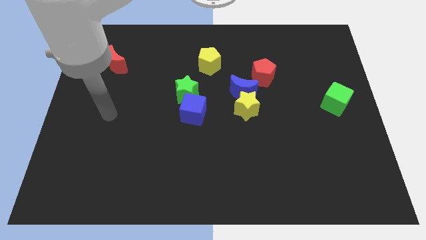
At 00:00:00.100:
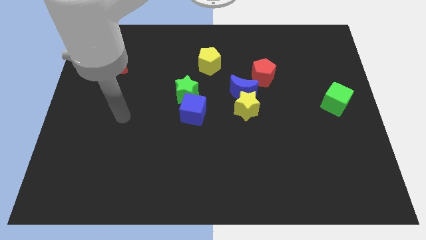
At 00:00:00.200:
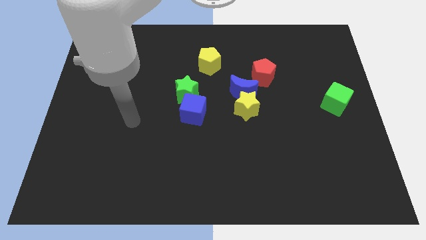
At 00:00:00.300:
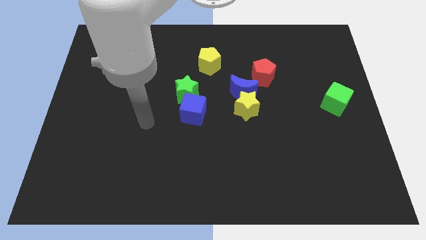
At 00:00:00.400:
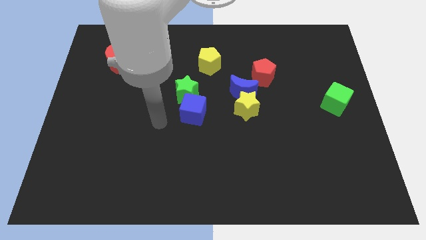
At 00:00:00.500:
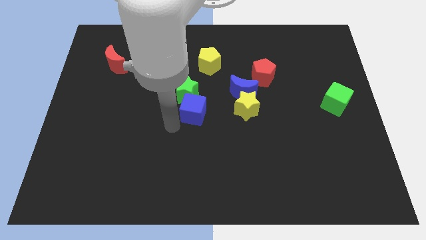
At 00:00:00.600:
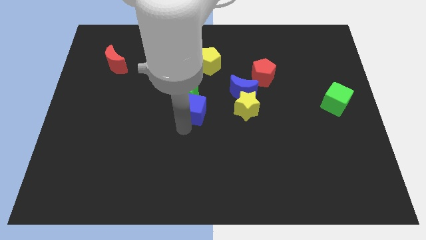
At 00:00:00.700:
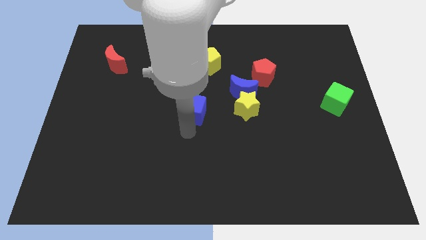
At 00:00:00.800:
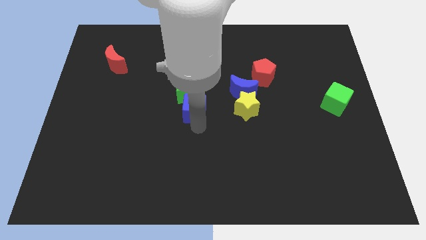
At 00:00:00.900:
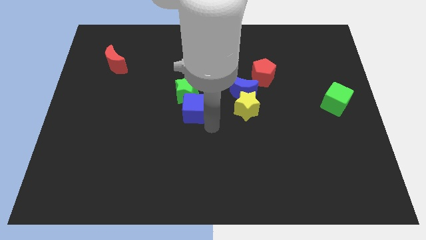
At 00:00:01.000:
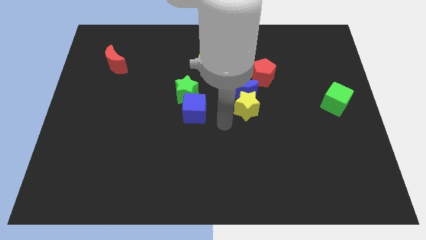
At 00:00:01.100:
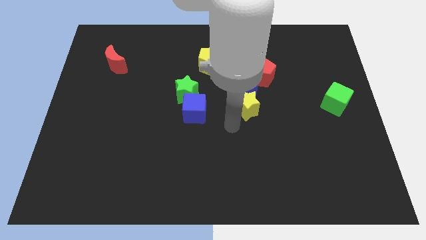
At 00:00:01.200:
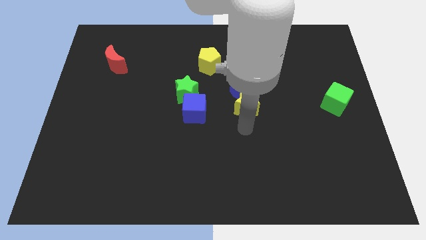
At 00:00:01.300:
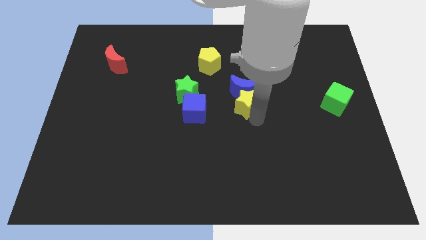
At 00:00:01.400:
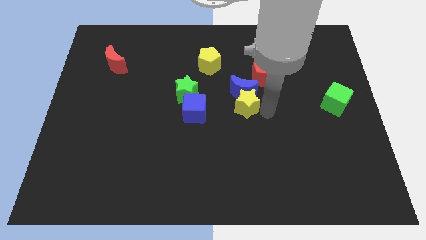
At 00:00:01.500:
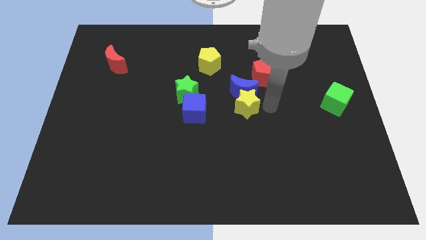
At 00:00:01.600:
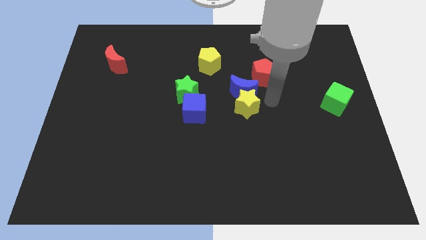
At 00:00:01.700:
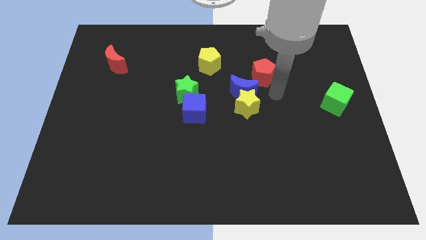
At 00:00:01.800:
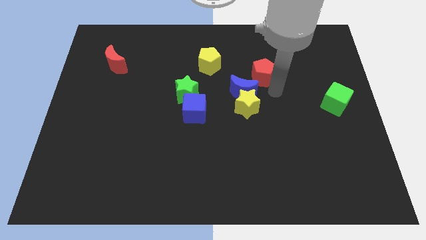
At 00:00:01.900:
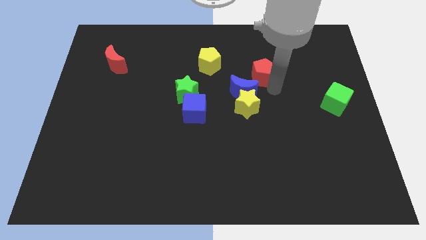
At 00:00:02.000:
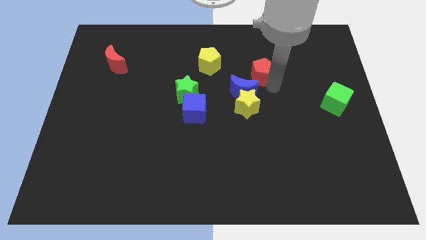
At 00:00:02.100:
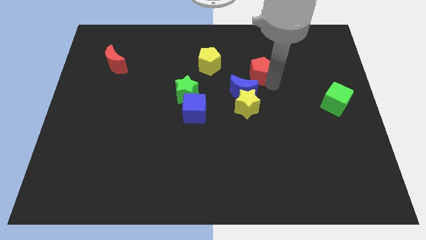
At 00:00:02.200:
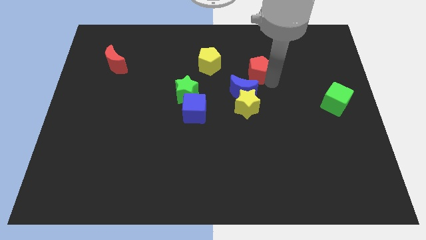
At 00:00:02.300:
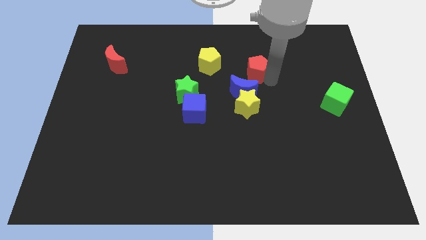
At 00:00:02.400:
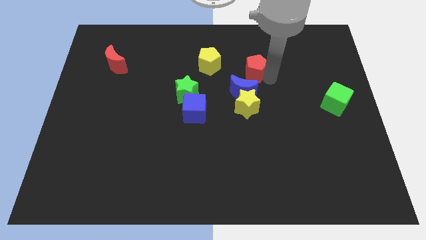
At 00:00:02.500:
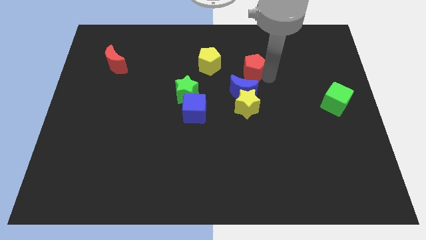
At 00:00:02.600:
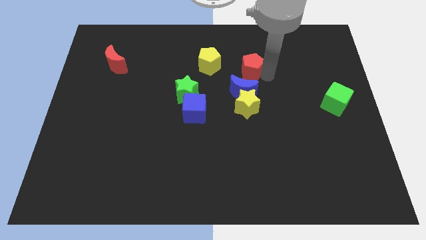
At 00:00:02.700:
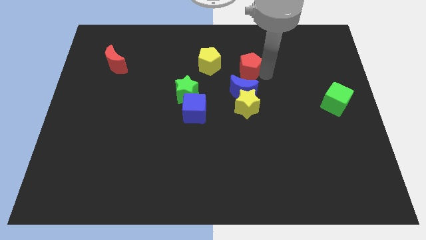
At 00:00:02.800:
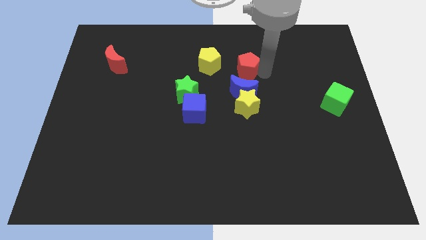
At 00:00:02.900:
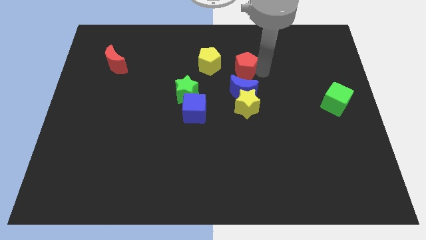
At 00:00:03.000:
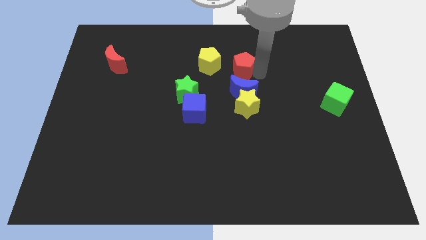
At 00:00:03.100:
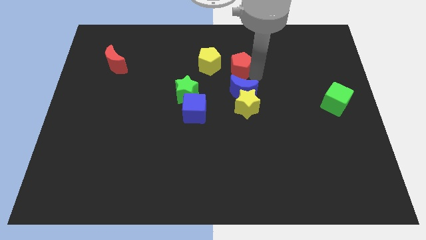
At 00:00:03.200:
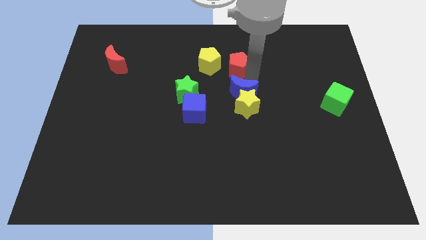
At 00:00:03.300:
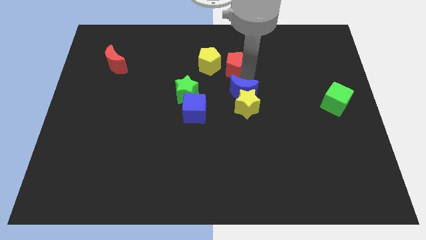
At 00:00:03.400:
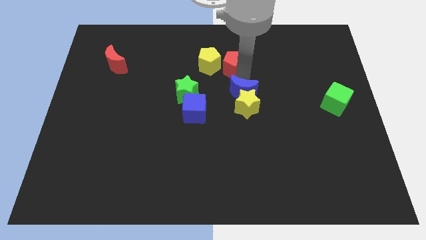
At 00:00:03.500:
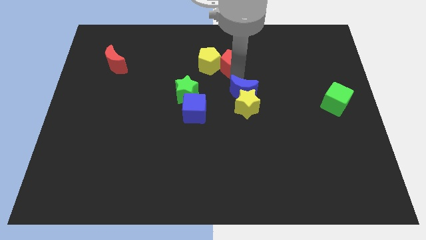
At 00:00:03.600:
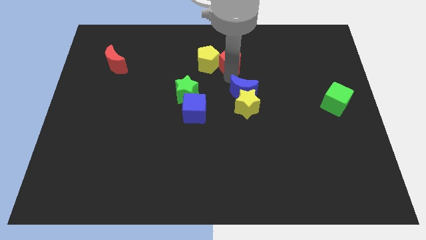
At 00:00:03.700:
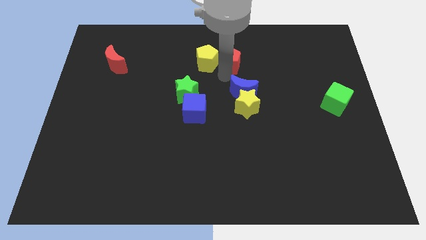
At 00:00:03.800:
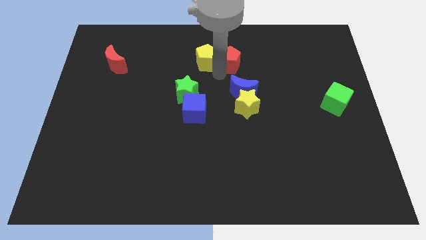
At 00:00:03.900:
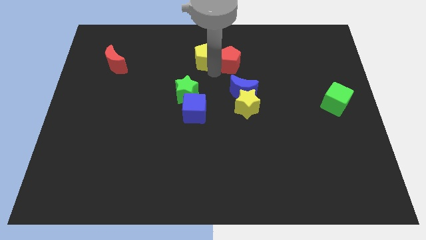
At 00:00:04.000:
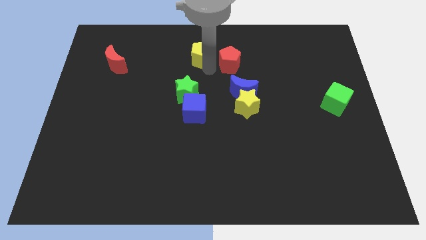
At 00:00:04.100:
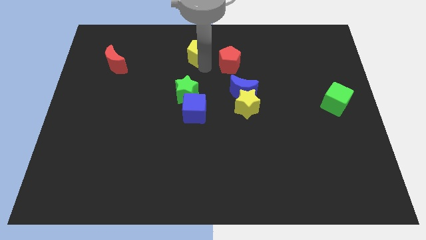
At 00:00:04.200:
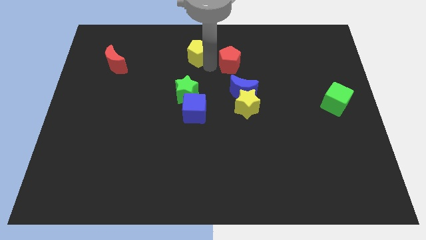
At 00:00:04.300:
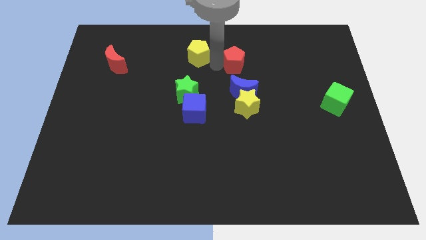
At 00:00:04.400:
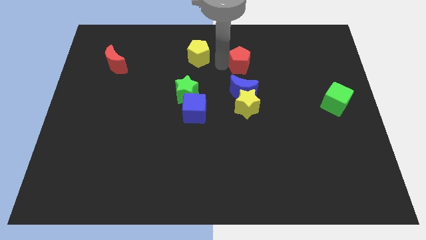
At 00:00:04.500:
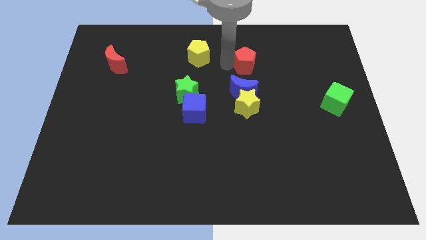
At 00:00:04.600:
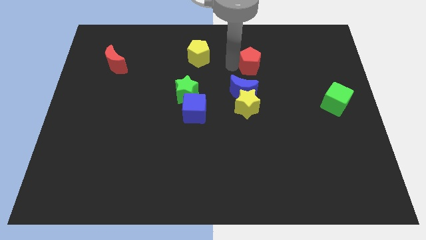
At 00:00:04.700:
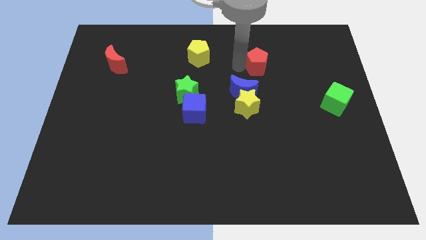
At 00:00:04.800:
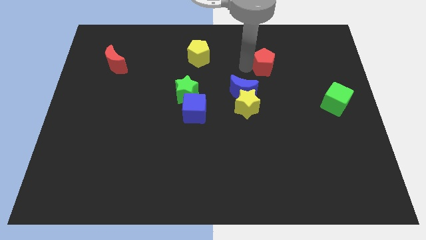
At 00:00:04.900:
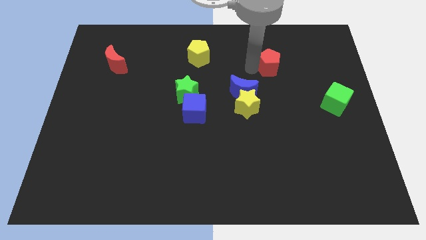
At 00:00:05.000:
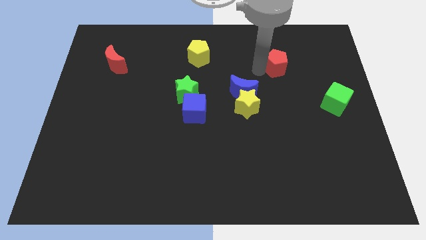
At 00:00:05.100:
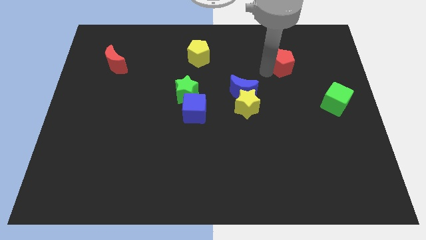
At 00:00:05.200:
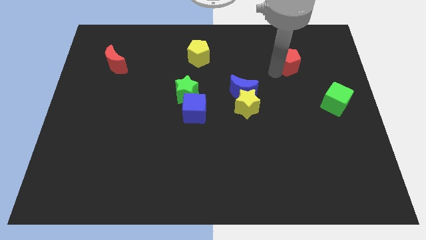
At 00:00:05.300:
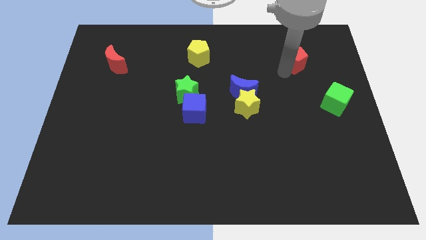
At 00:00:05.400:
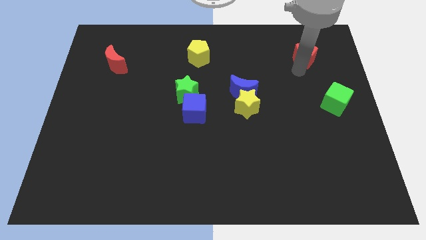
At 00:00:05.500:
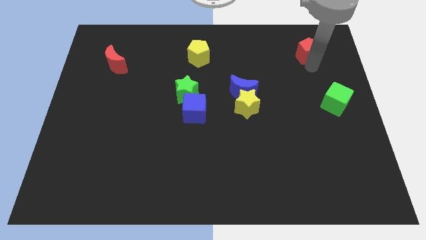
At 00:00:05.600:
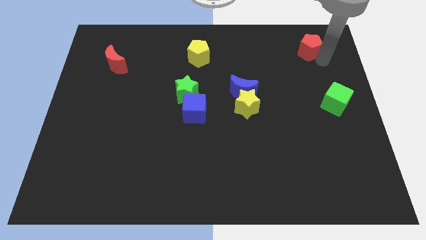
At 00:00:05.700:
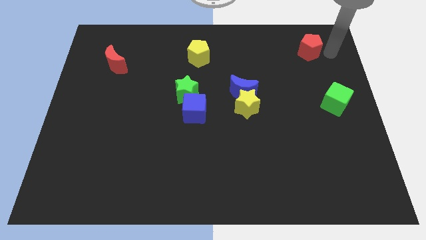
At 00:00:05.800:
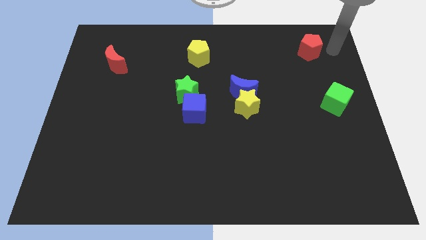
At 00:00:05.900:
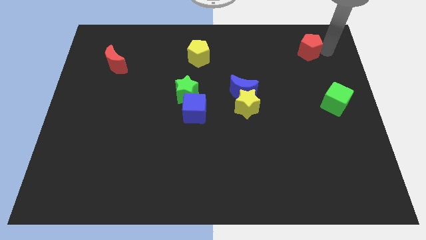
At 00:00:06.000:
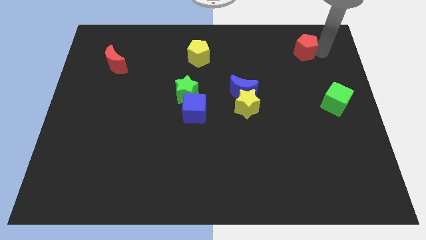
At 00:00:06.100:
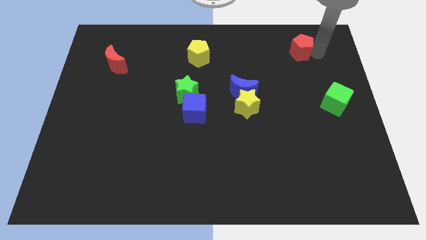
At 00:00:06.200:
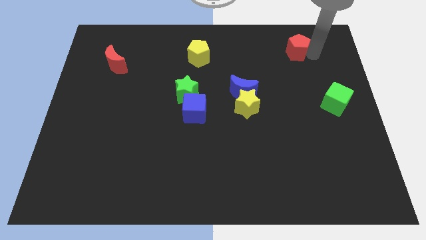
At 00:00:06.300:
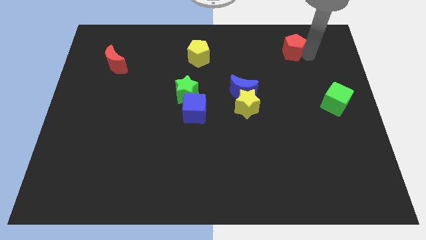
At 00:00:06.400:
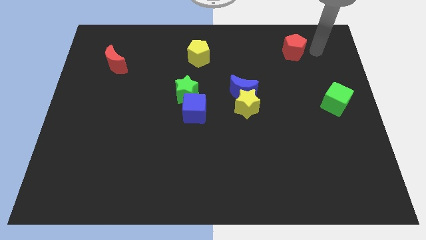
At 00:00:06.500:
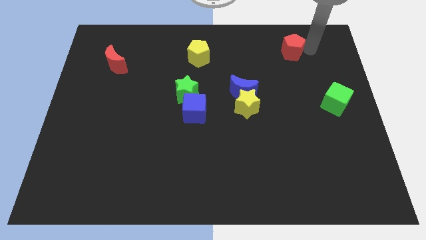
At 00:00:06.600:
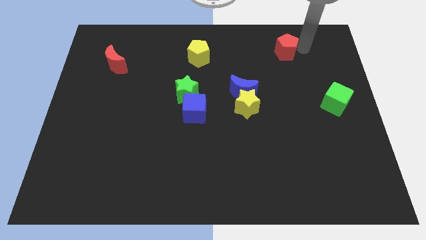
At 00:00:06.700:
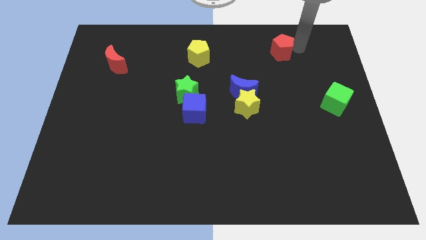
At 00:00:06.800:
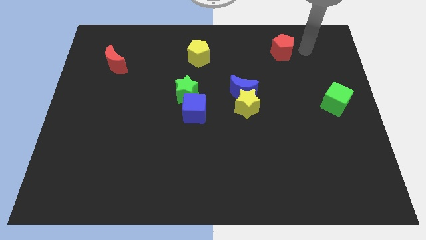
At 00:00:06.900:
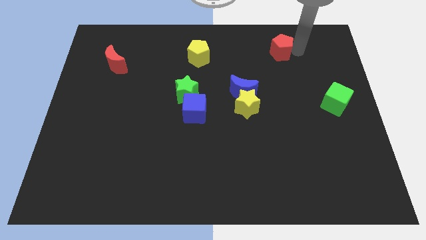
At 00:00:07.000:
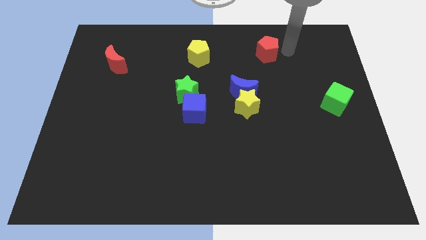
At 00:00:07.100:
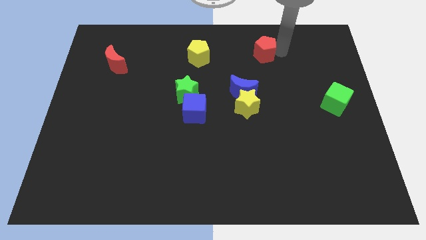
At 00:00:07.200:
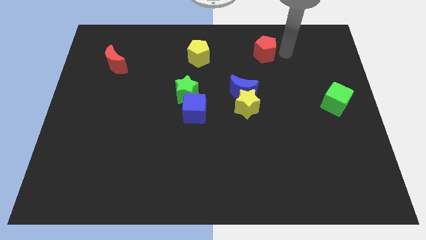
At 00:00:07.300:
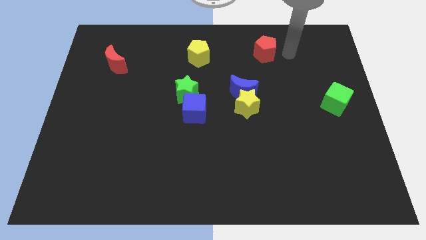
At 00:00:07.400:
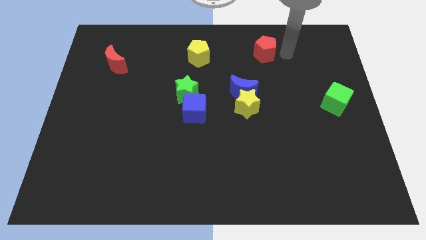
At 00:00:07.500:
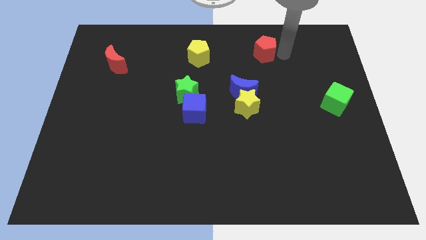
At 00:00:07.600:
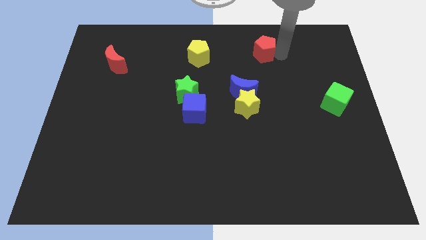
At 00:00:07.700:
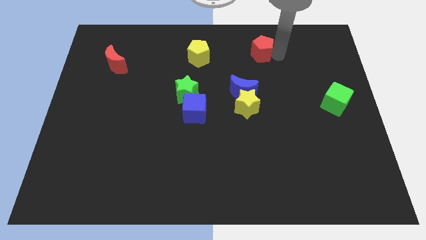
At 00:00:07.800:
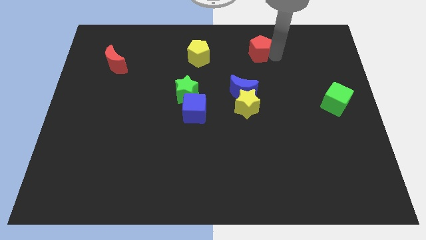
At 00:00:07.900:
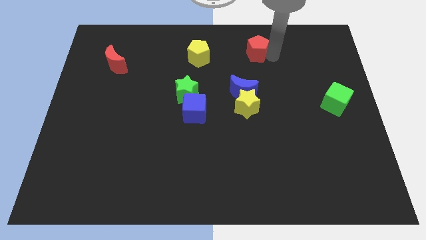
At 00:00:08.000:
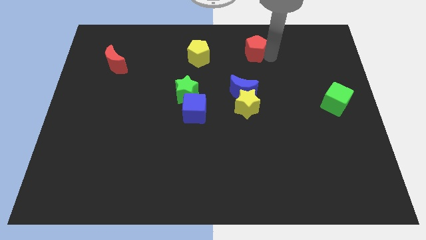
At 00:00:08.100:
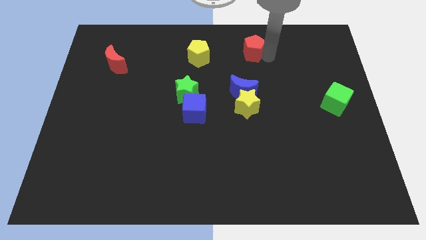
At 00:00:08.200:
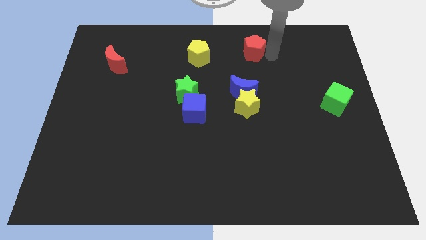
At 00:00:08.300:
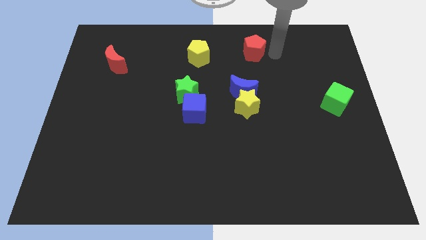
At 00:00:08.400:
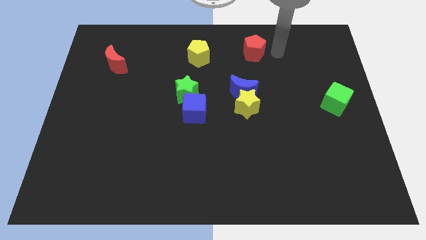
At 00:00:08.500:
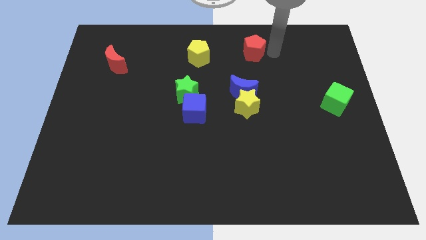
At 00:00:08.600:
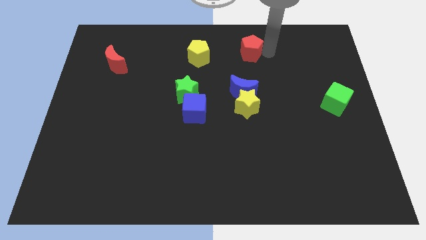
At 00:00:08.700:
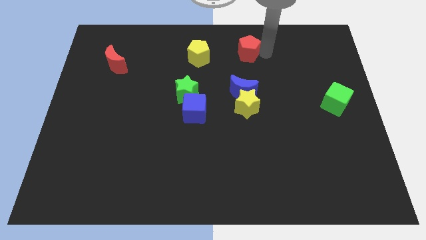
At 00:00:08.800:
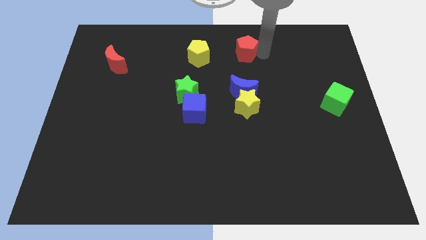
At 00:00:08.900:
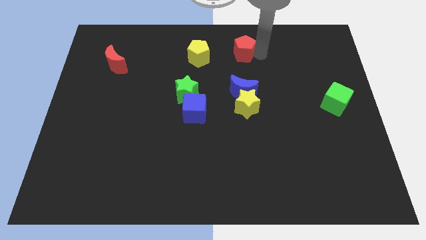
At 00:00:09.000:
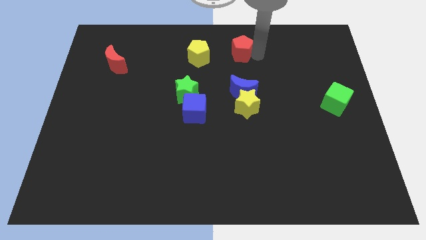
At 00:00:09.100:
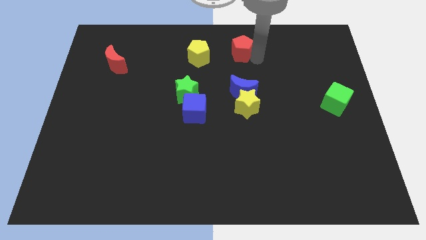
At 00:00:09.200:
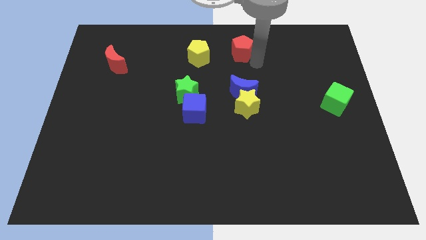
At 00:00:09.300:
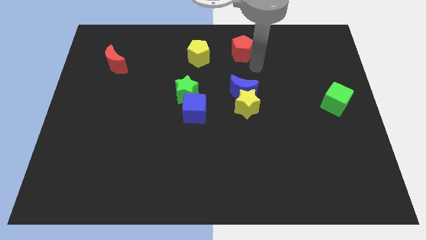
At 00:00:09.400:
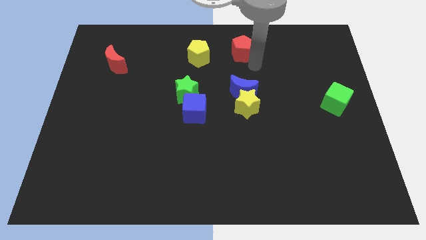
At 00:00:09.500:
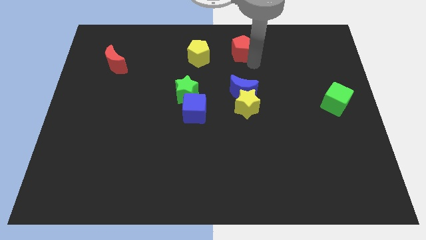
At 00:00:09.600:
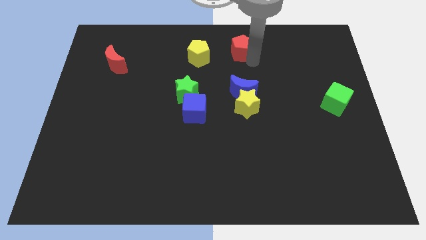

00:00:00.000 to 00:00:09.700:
slide the red pentagon to the top
